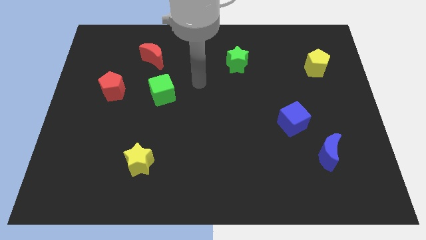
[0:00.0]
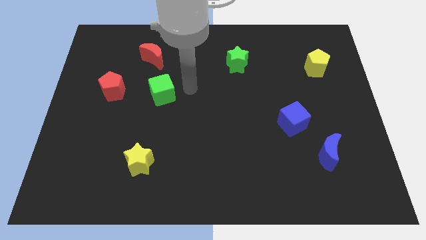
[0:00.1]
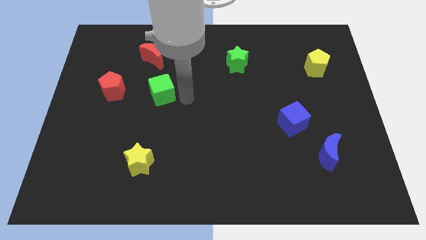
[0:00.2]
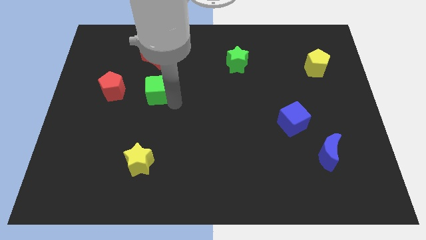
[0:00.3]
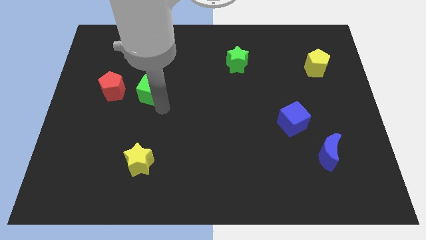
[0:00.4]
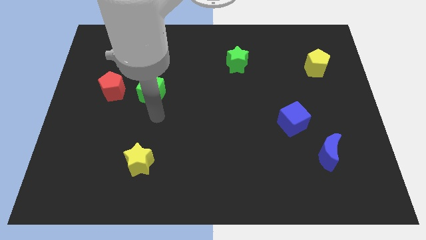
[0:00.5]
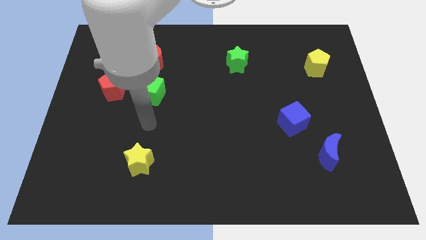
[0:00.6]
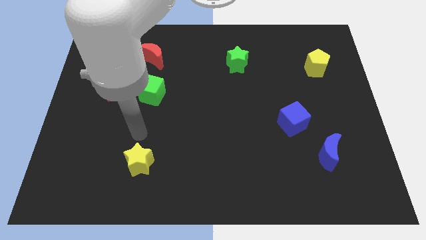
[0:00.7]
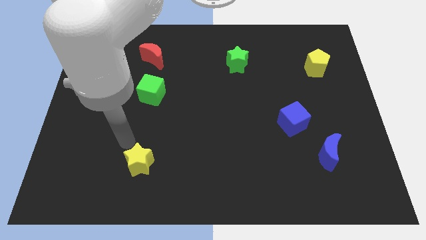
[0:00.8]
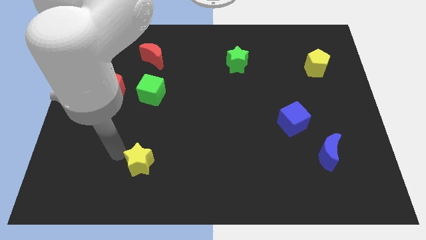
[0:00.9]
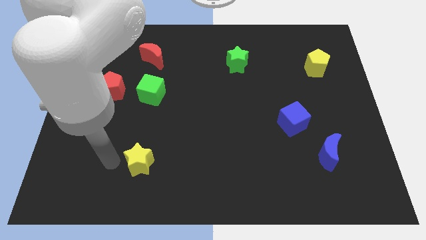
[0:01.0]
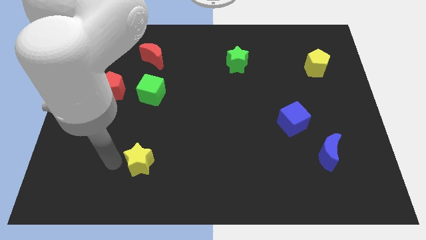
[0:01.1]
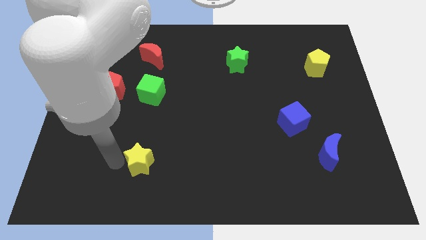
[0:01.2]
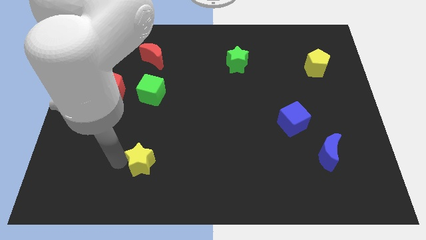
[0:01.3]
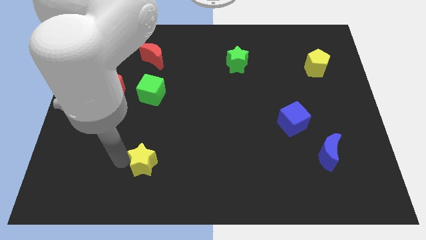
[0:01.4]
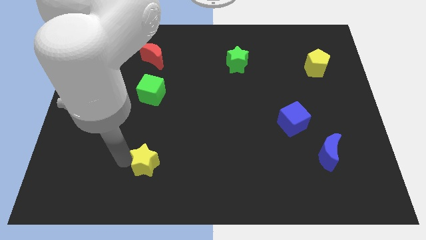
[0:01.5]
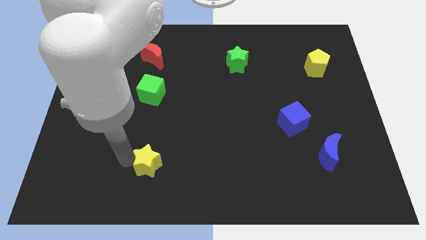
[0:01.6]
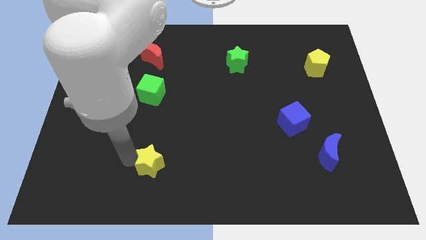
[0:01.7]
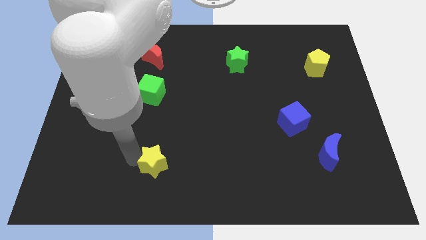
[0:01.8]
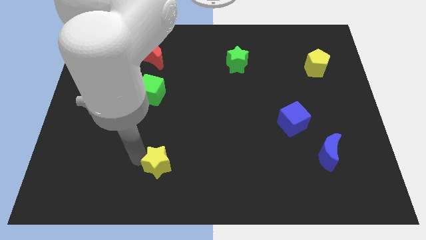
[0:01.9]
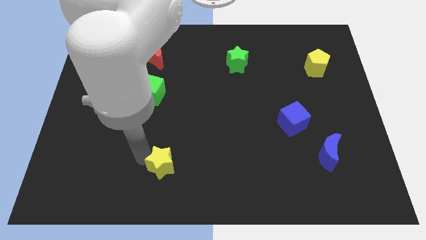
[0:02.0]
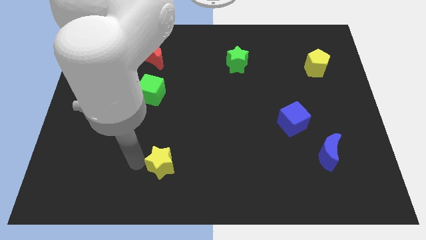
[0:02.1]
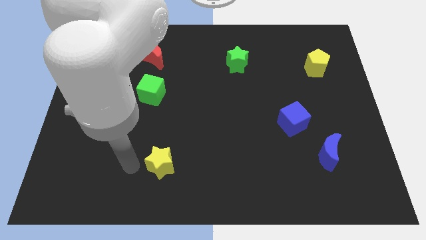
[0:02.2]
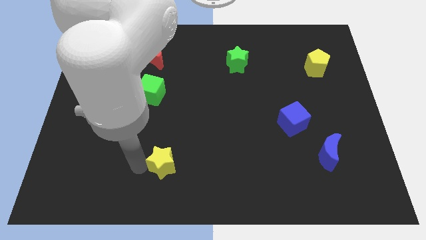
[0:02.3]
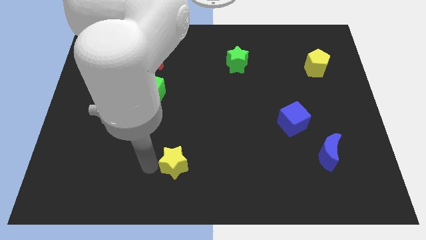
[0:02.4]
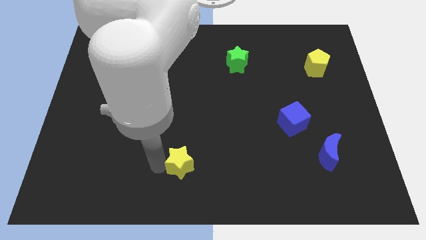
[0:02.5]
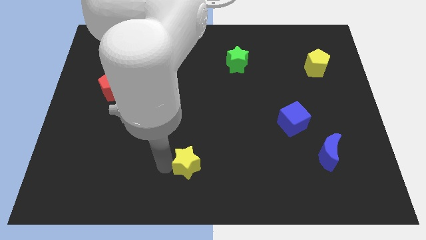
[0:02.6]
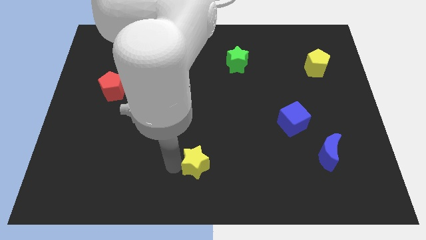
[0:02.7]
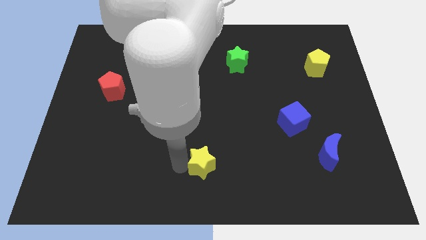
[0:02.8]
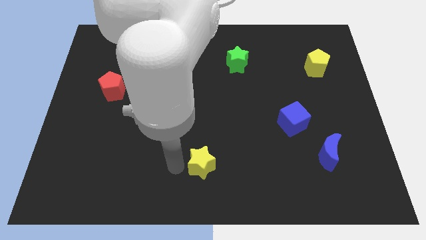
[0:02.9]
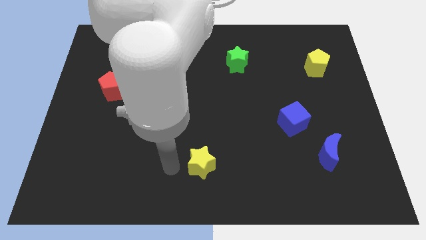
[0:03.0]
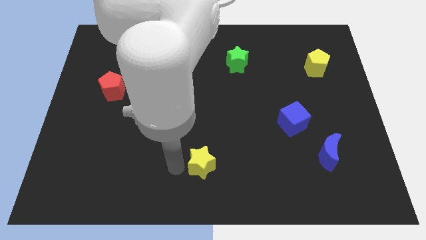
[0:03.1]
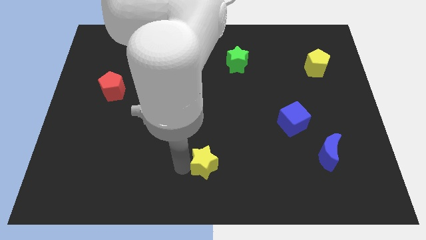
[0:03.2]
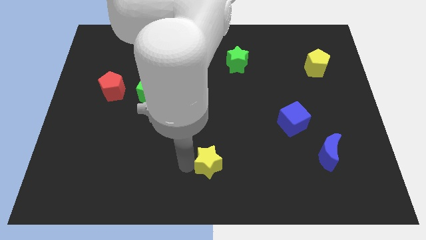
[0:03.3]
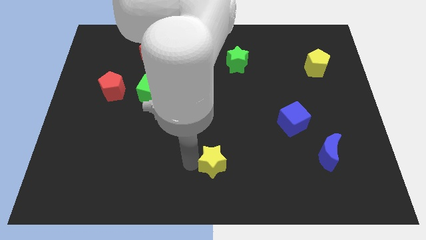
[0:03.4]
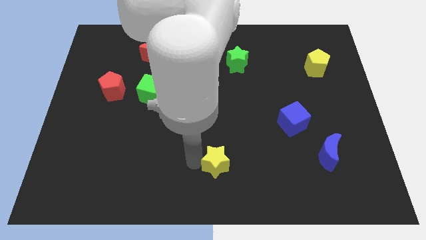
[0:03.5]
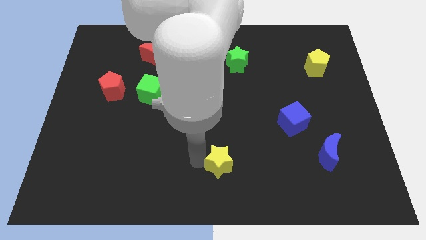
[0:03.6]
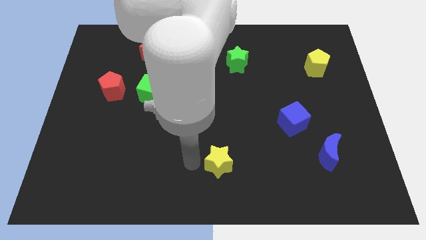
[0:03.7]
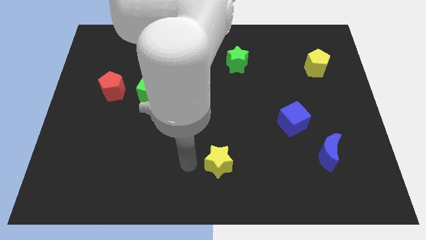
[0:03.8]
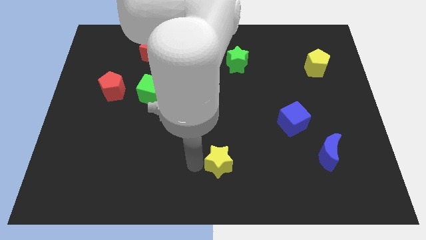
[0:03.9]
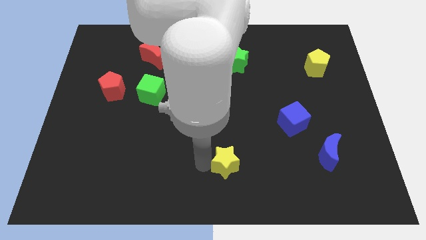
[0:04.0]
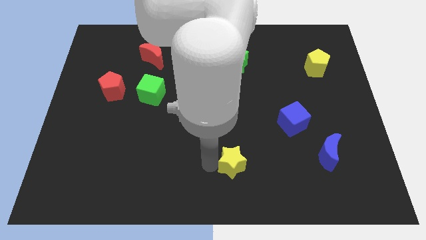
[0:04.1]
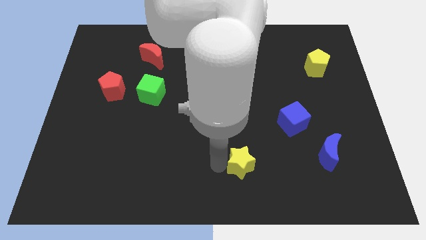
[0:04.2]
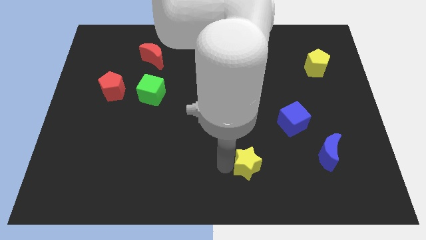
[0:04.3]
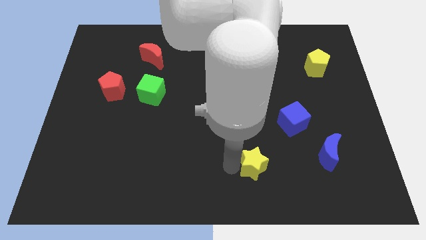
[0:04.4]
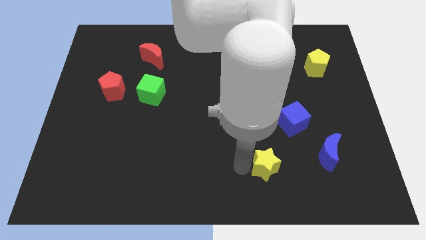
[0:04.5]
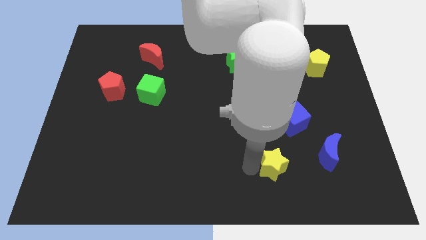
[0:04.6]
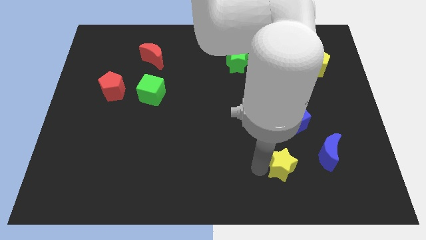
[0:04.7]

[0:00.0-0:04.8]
put the yellow star to the bottom of the blue cube

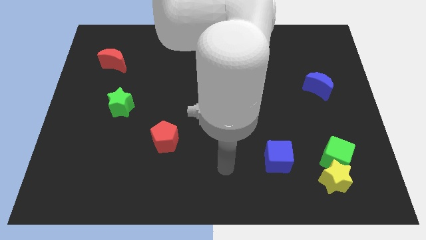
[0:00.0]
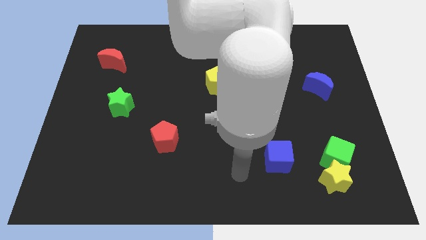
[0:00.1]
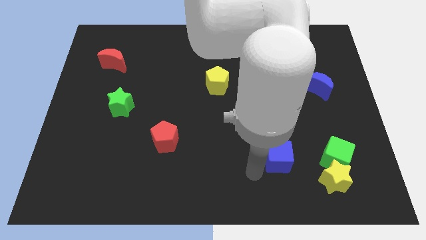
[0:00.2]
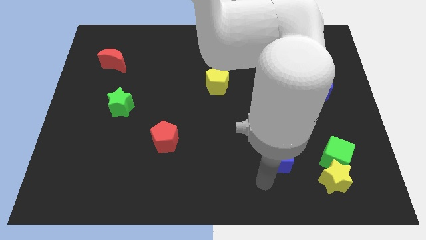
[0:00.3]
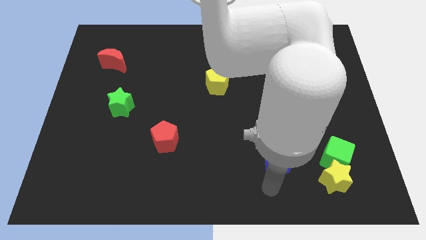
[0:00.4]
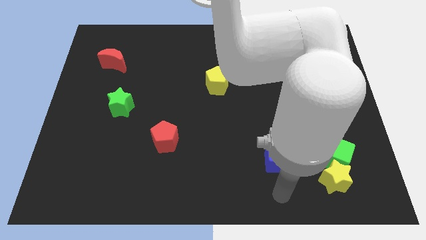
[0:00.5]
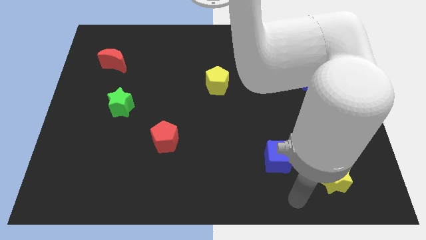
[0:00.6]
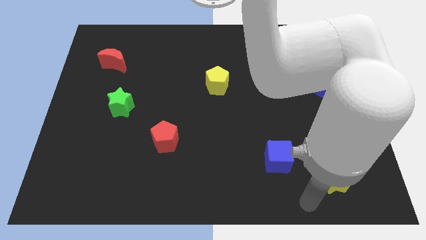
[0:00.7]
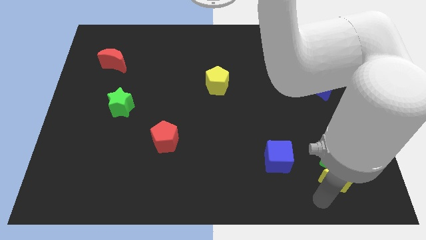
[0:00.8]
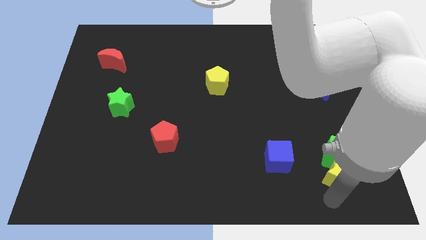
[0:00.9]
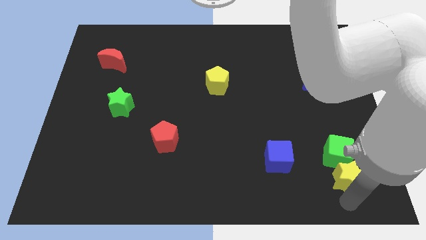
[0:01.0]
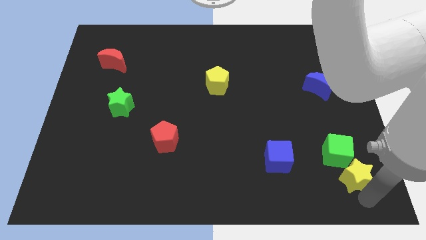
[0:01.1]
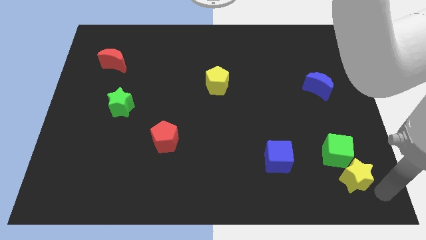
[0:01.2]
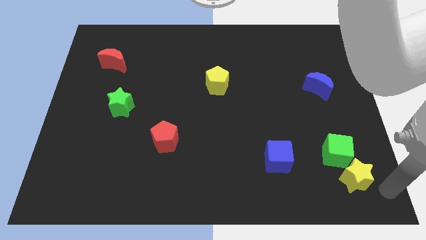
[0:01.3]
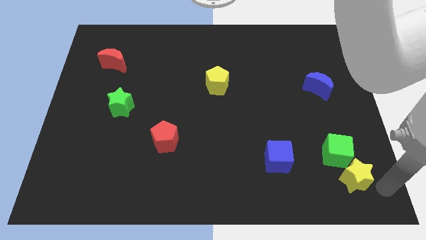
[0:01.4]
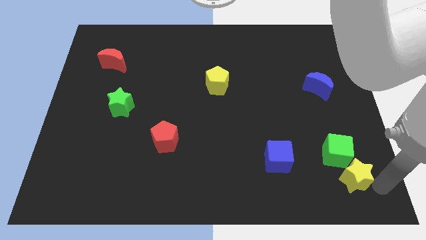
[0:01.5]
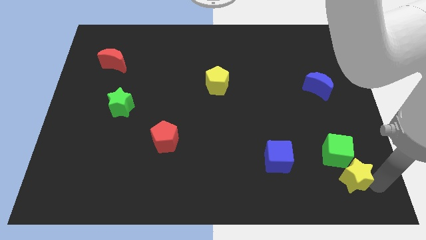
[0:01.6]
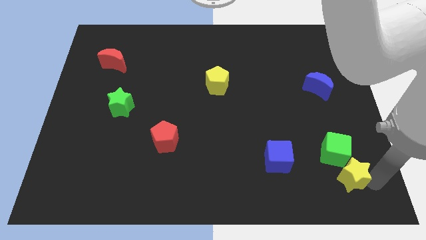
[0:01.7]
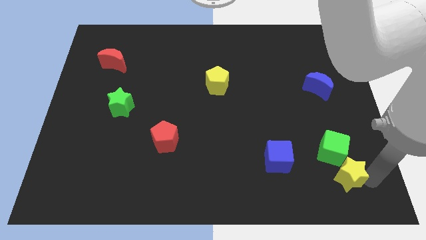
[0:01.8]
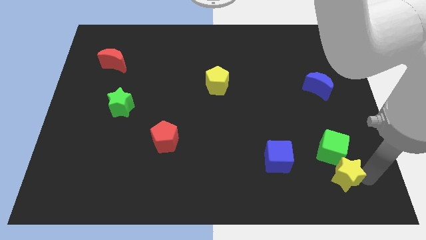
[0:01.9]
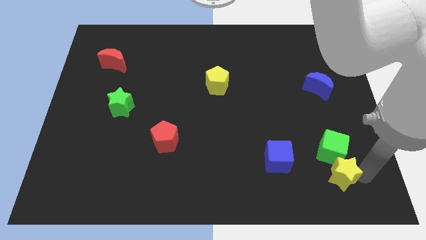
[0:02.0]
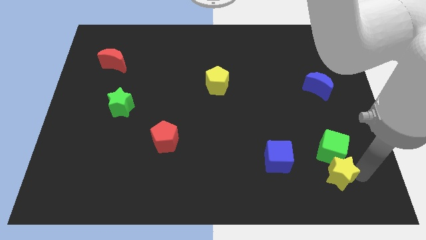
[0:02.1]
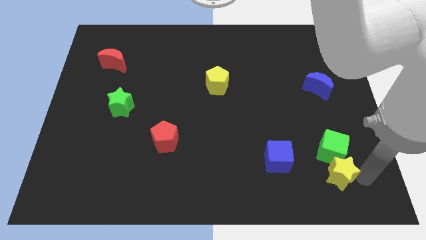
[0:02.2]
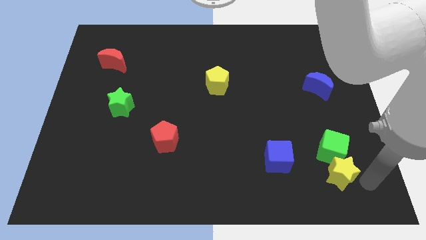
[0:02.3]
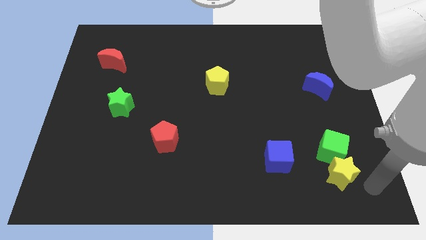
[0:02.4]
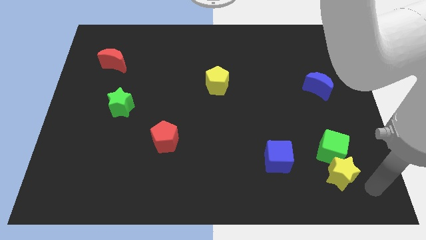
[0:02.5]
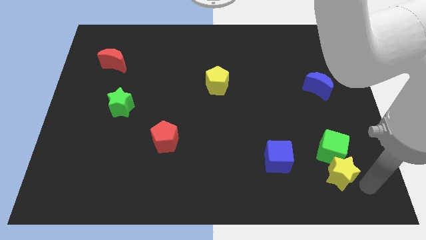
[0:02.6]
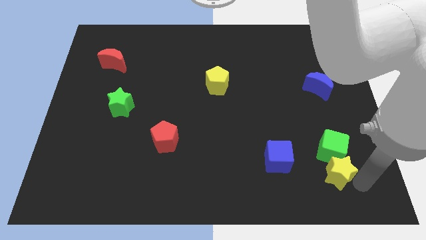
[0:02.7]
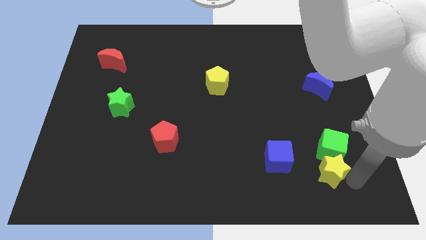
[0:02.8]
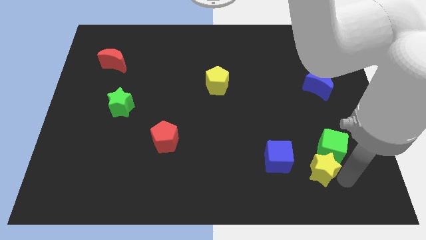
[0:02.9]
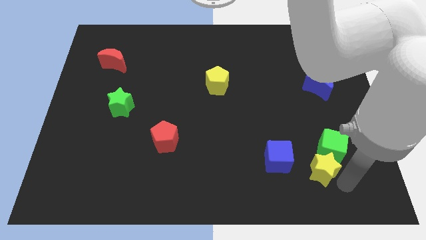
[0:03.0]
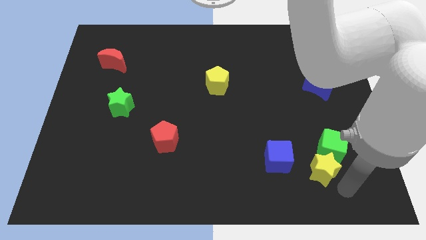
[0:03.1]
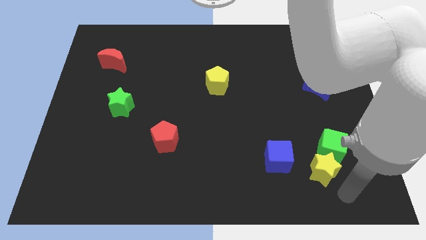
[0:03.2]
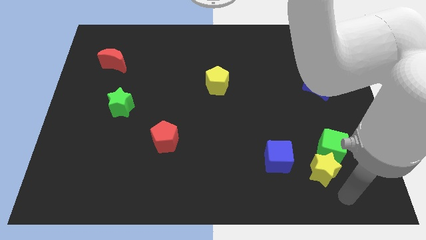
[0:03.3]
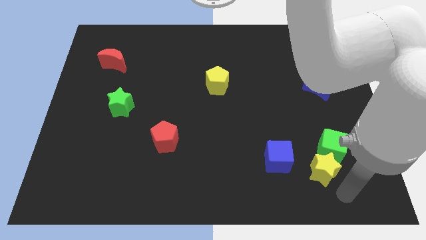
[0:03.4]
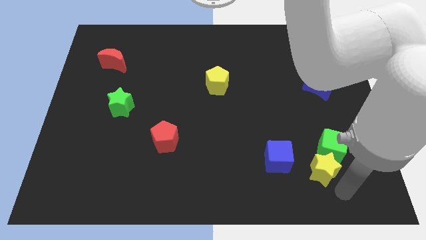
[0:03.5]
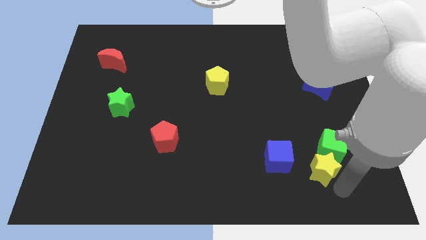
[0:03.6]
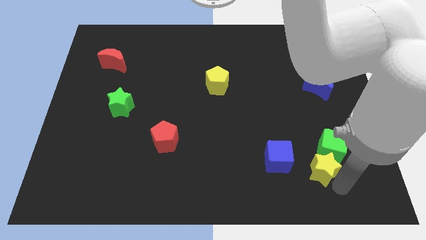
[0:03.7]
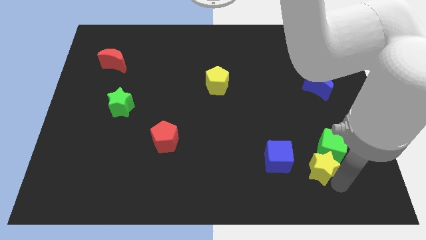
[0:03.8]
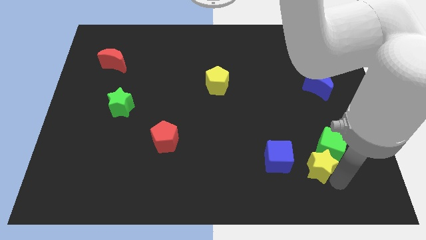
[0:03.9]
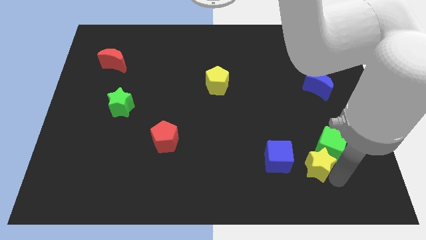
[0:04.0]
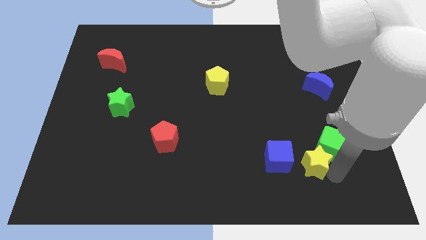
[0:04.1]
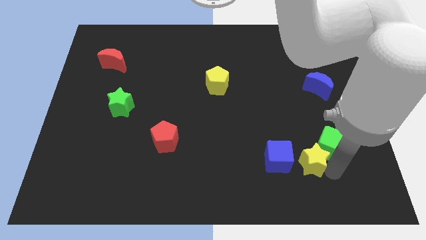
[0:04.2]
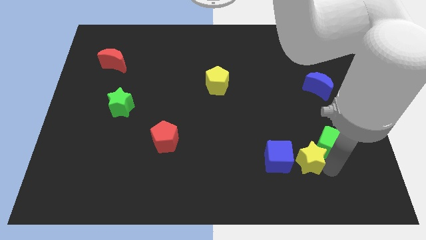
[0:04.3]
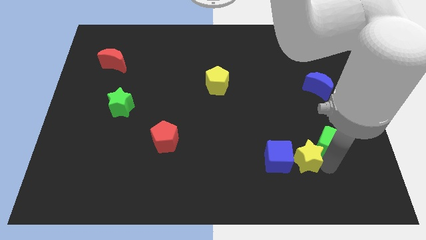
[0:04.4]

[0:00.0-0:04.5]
push the yellow star to the top right of the blue cube
